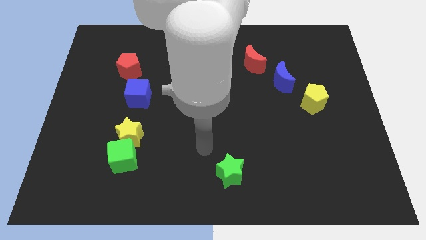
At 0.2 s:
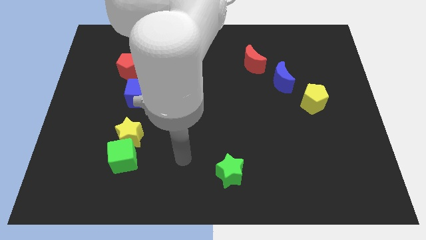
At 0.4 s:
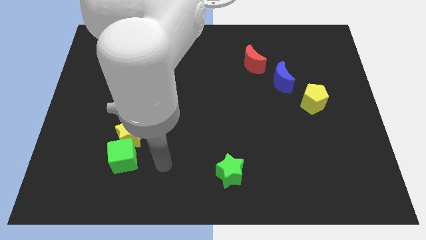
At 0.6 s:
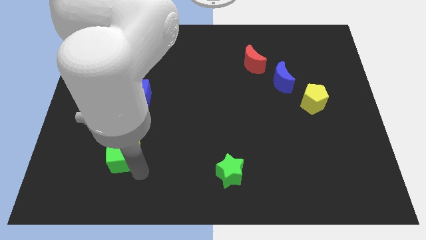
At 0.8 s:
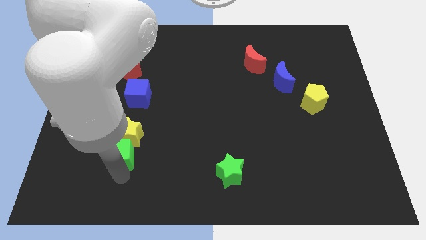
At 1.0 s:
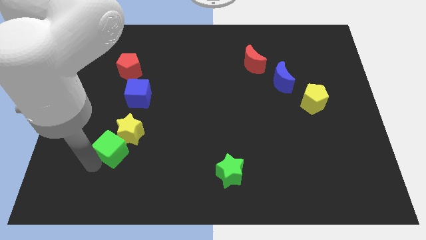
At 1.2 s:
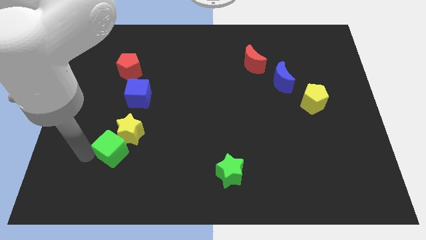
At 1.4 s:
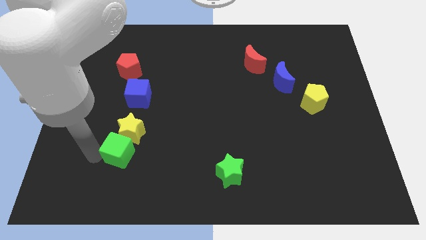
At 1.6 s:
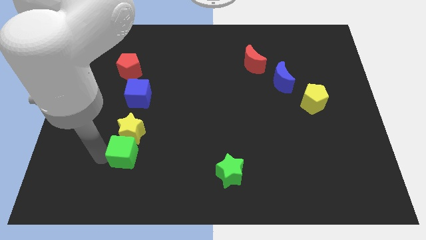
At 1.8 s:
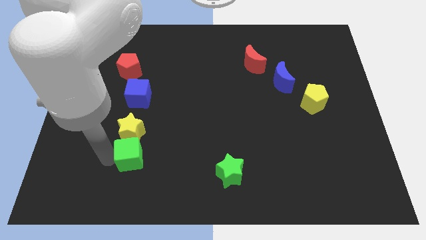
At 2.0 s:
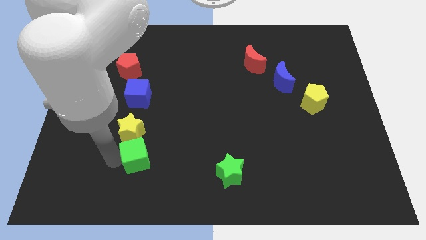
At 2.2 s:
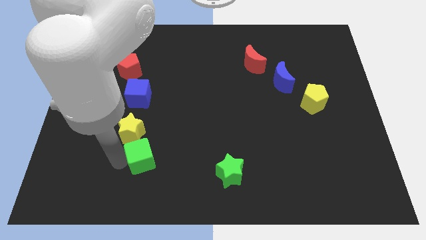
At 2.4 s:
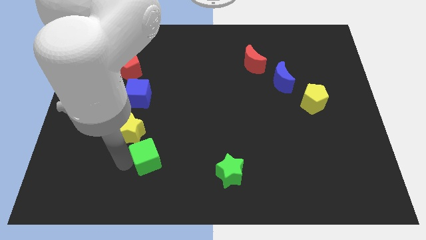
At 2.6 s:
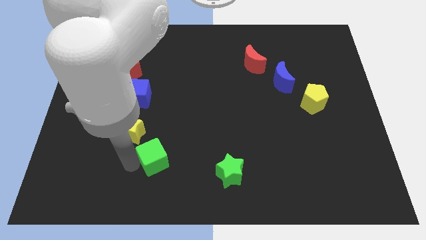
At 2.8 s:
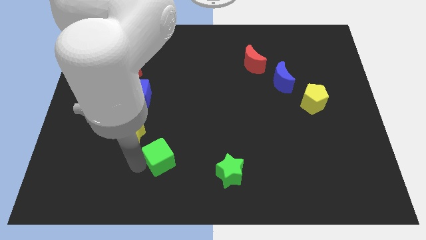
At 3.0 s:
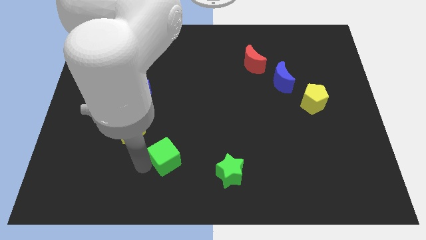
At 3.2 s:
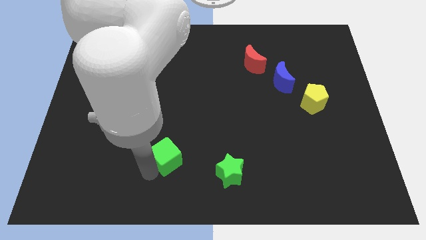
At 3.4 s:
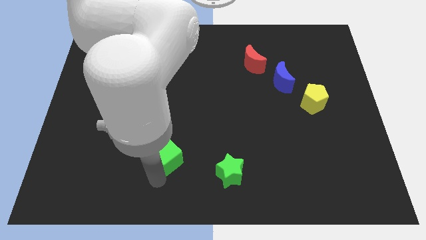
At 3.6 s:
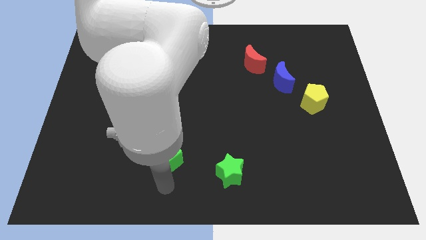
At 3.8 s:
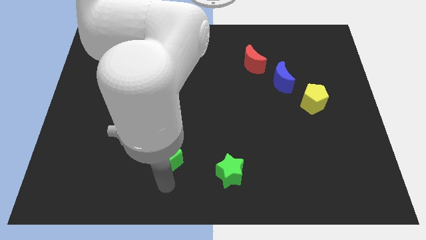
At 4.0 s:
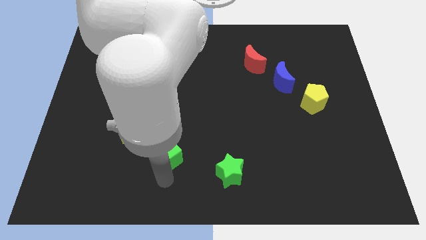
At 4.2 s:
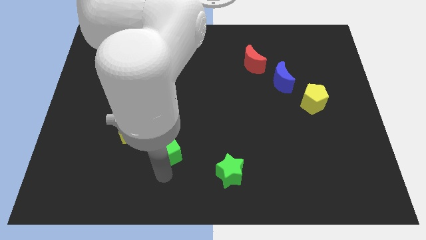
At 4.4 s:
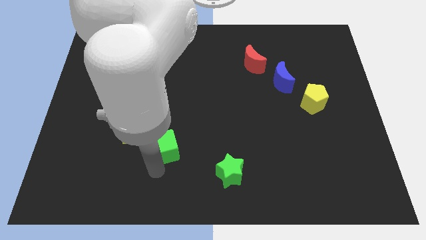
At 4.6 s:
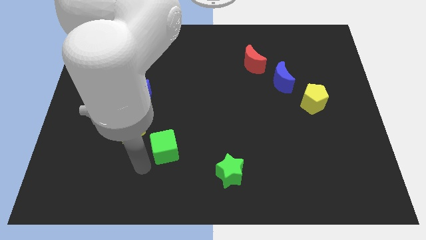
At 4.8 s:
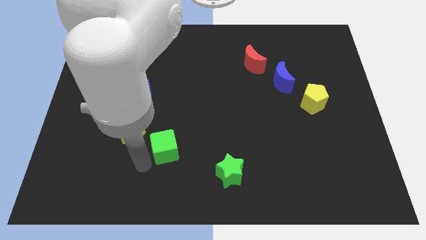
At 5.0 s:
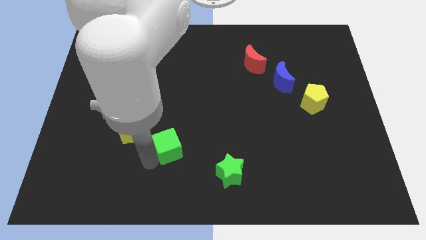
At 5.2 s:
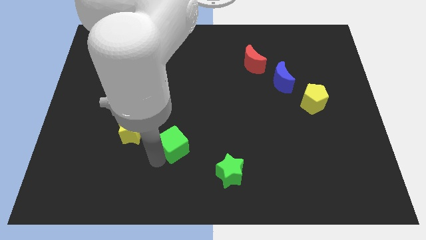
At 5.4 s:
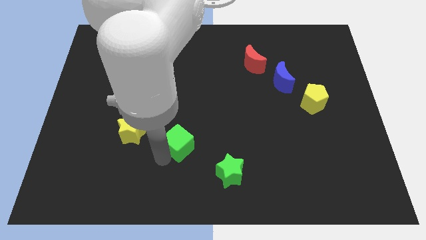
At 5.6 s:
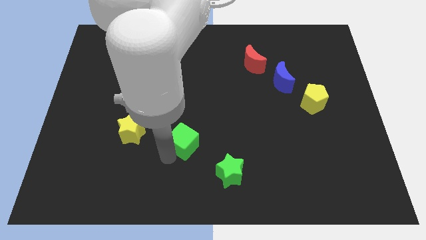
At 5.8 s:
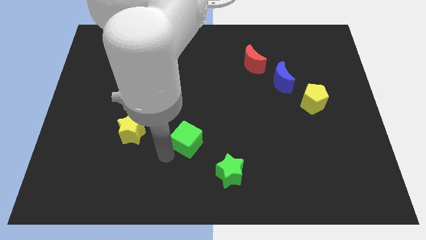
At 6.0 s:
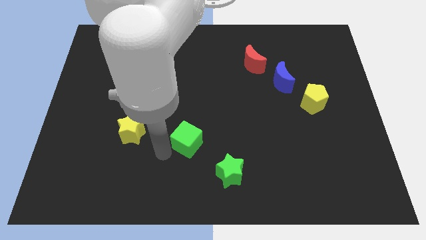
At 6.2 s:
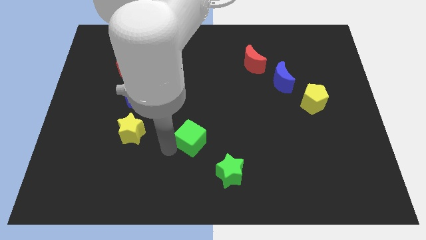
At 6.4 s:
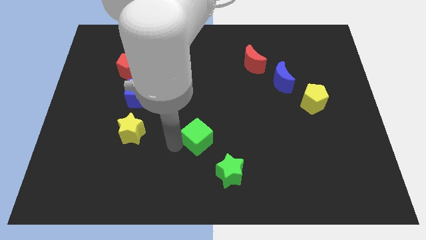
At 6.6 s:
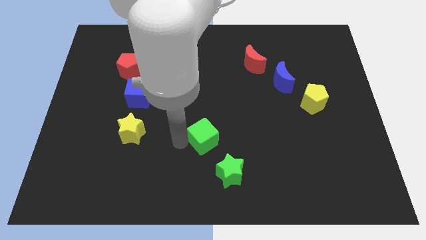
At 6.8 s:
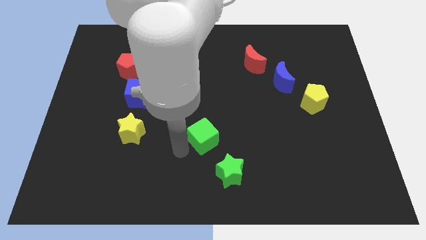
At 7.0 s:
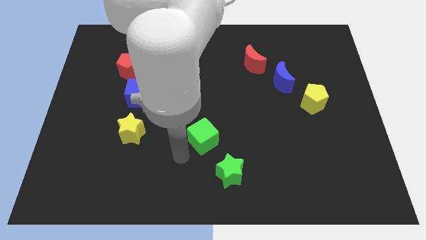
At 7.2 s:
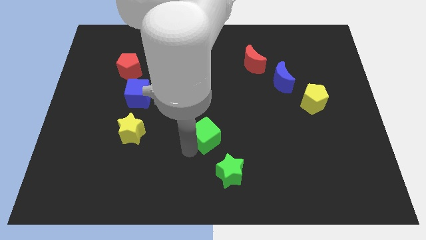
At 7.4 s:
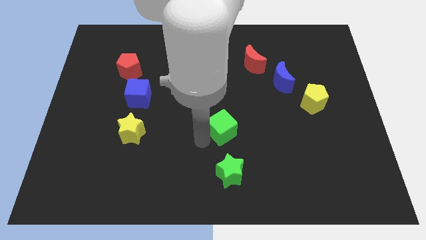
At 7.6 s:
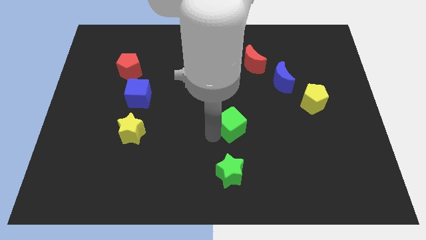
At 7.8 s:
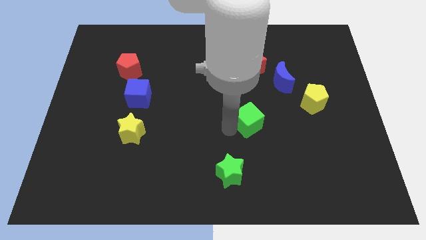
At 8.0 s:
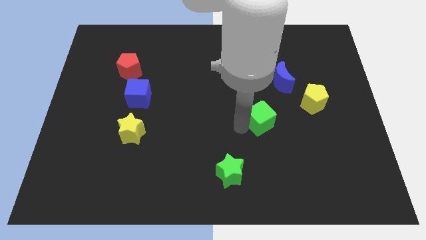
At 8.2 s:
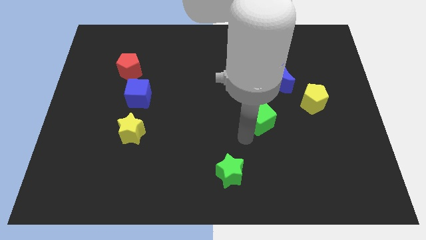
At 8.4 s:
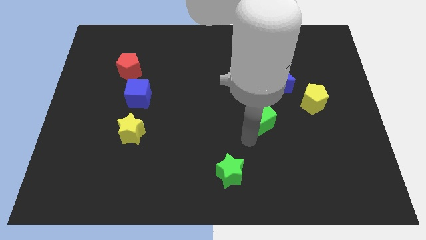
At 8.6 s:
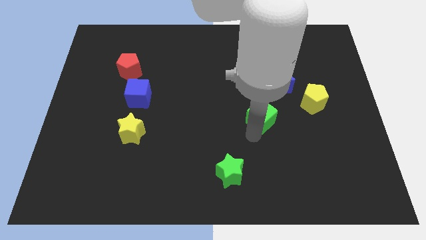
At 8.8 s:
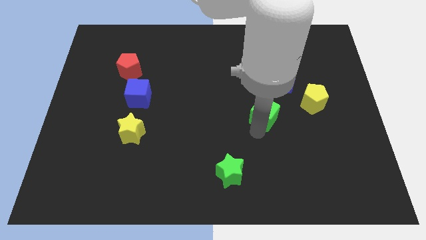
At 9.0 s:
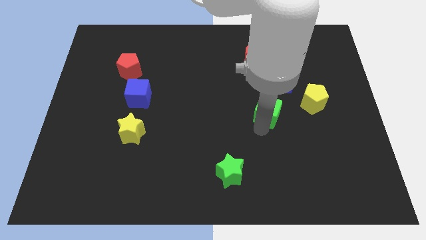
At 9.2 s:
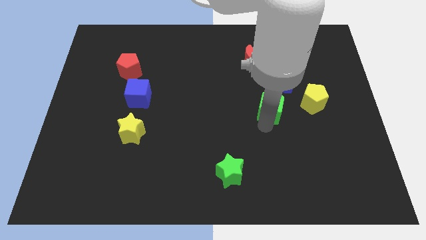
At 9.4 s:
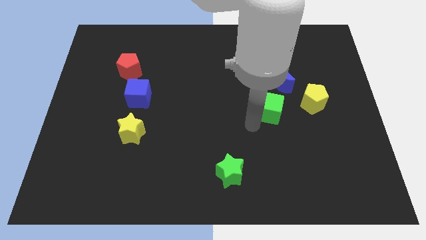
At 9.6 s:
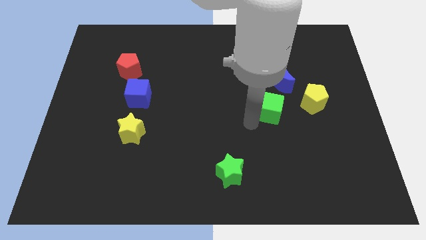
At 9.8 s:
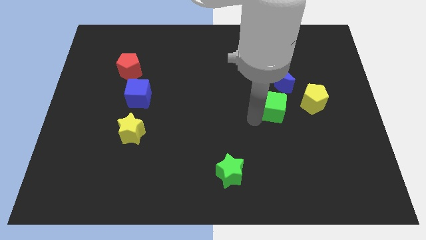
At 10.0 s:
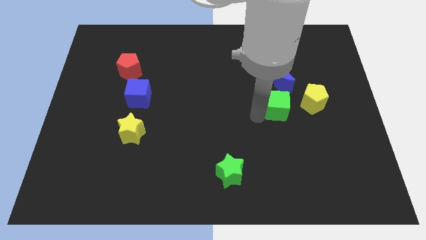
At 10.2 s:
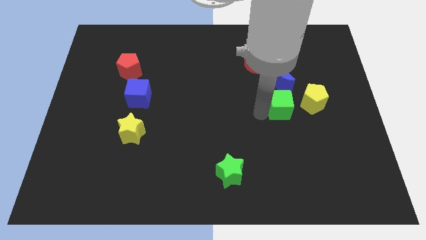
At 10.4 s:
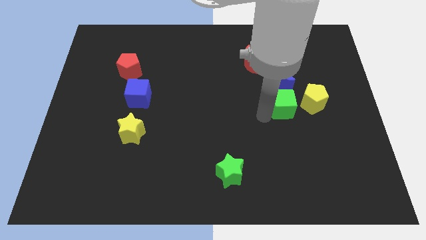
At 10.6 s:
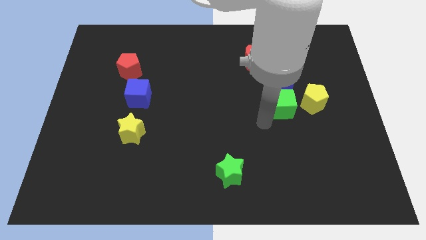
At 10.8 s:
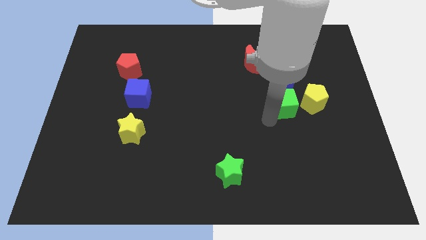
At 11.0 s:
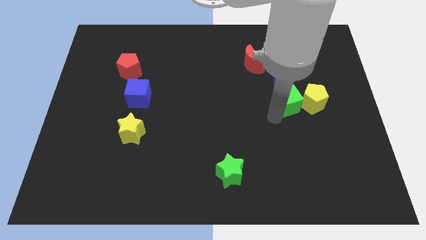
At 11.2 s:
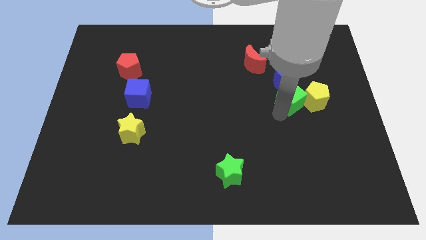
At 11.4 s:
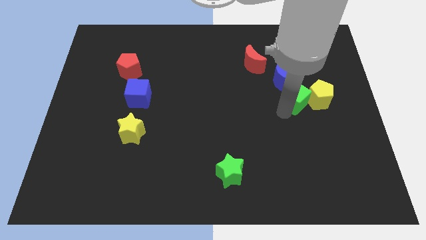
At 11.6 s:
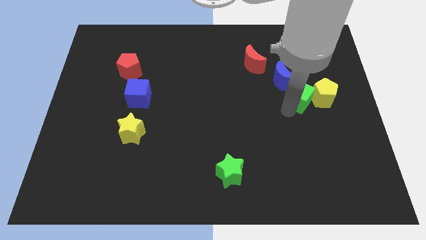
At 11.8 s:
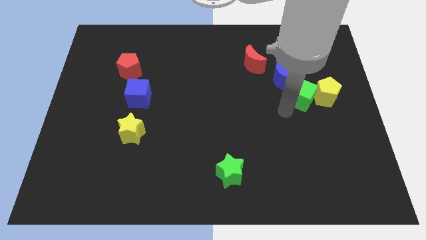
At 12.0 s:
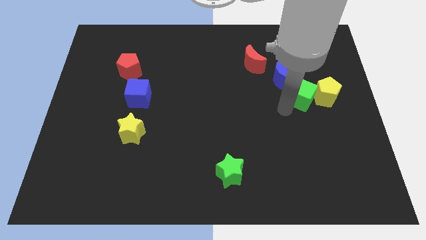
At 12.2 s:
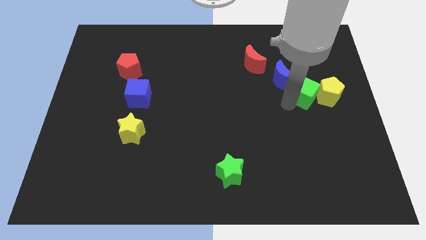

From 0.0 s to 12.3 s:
put the green cube to the right of the blue moon
